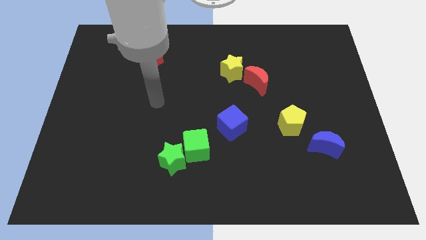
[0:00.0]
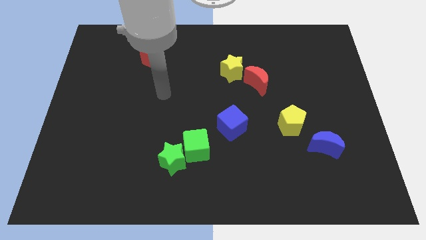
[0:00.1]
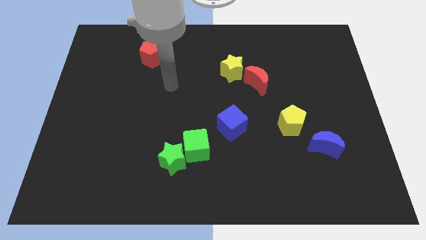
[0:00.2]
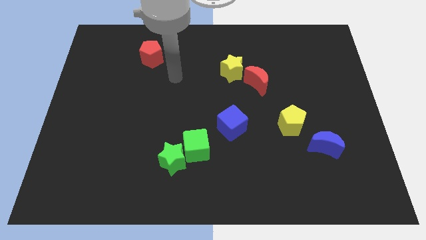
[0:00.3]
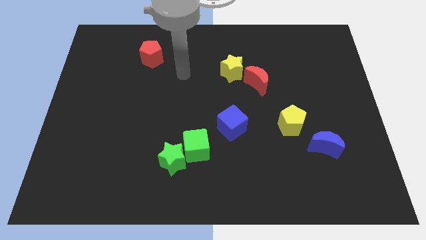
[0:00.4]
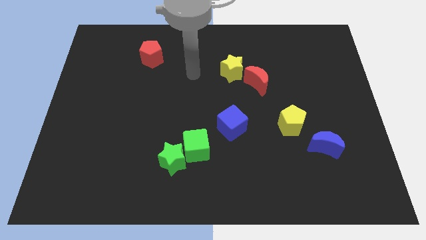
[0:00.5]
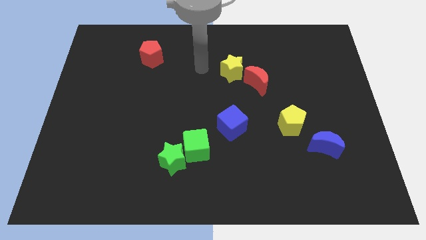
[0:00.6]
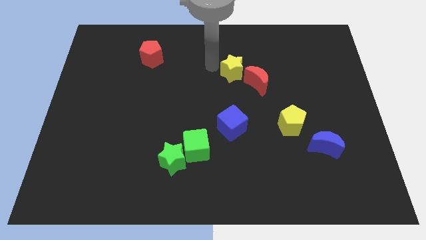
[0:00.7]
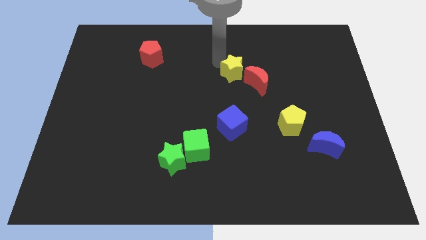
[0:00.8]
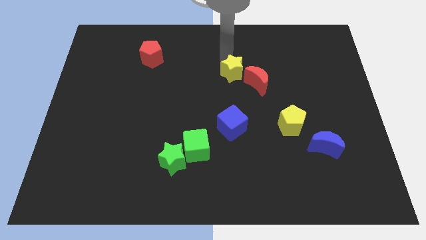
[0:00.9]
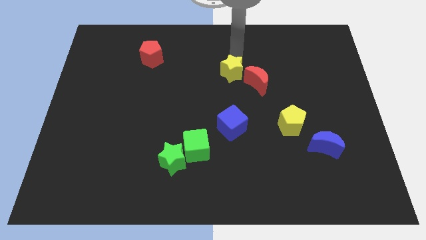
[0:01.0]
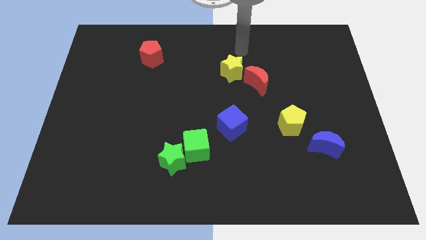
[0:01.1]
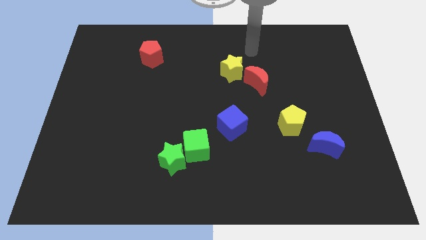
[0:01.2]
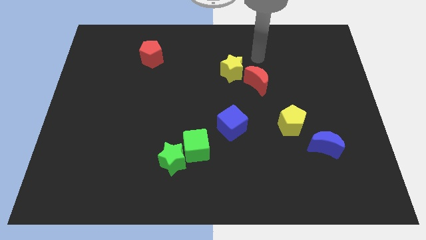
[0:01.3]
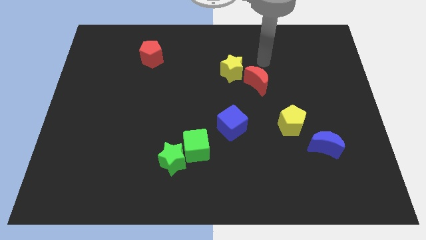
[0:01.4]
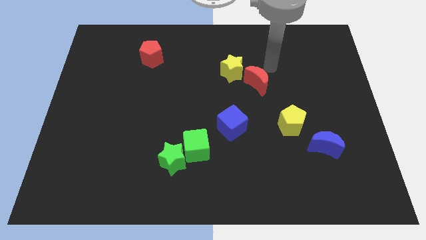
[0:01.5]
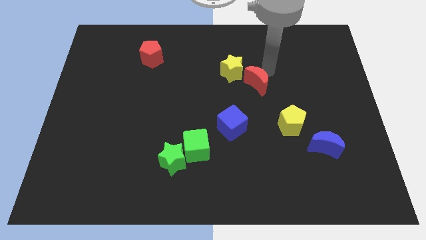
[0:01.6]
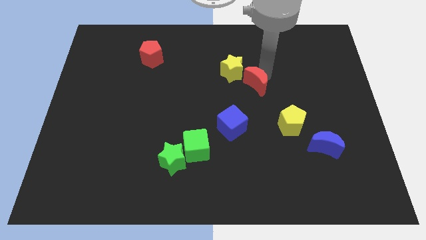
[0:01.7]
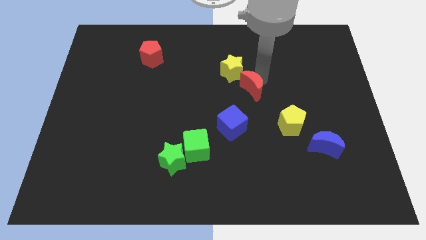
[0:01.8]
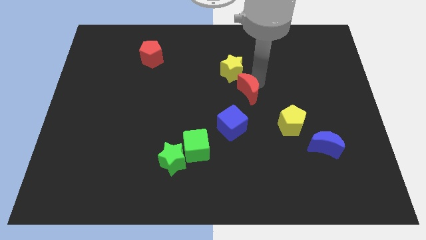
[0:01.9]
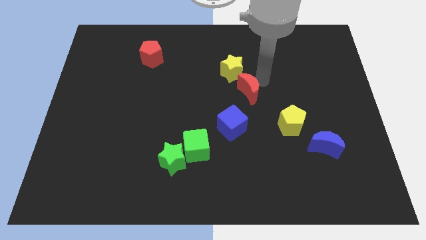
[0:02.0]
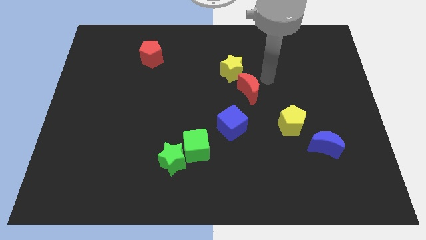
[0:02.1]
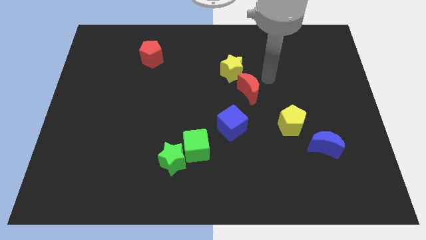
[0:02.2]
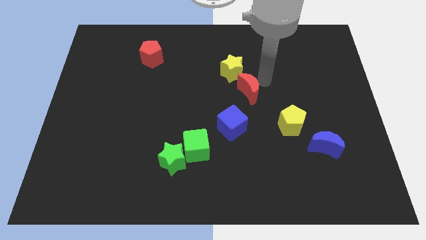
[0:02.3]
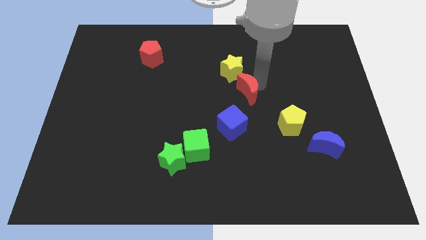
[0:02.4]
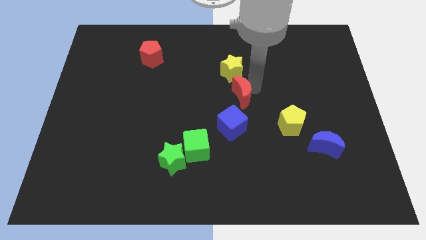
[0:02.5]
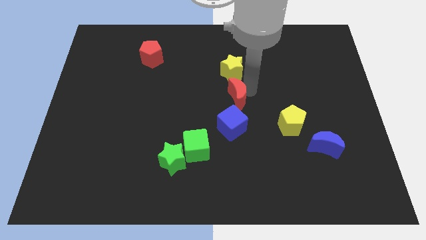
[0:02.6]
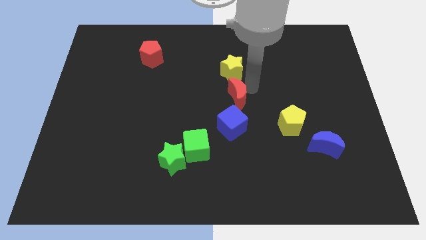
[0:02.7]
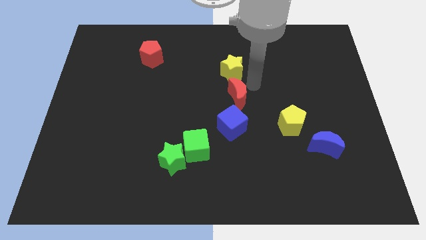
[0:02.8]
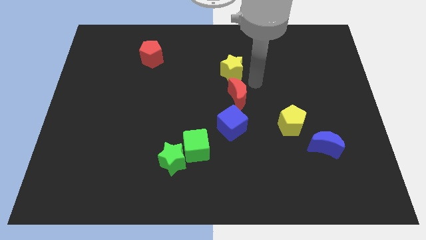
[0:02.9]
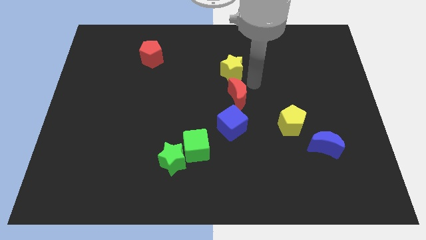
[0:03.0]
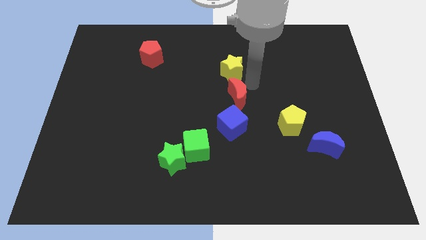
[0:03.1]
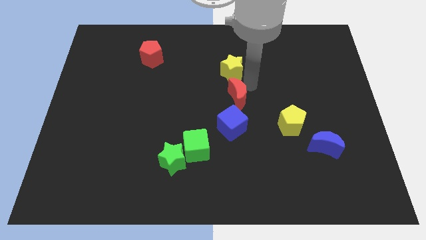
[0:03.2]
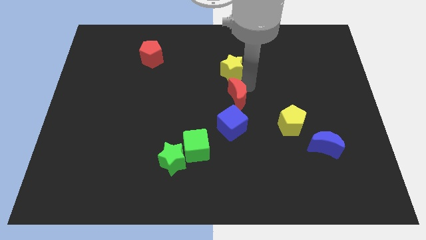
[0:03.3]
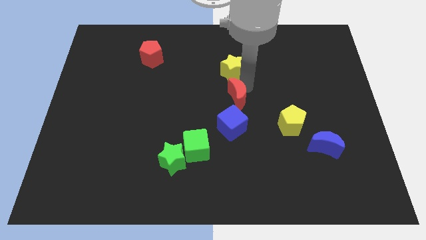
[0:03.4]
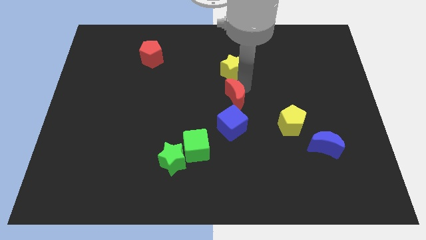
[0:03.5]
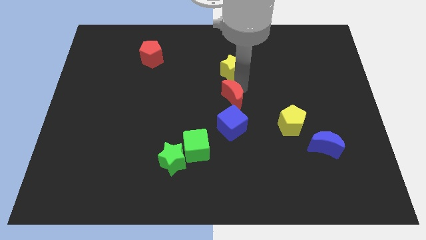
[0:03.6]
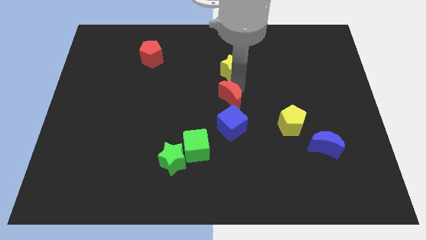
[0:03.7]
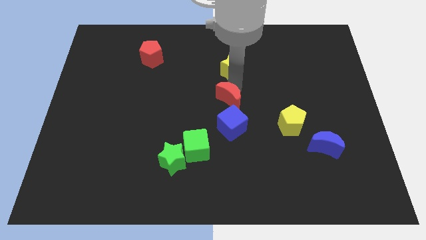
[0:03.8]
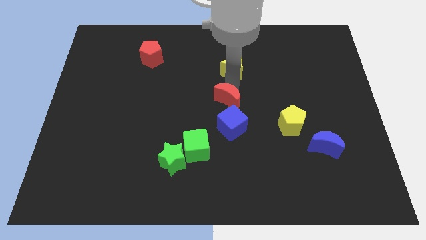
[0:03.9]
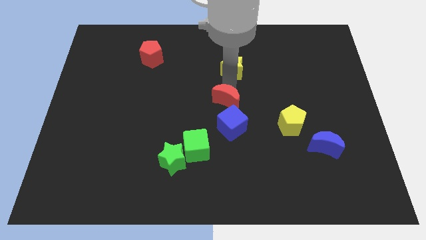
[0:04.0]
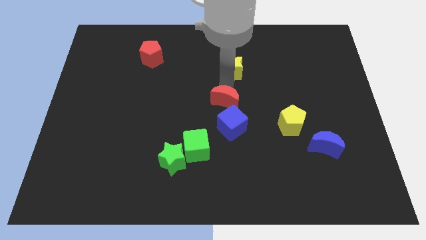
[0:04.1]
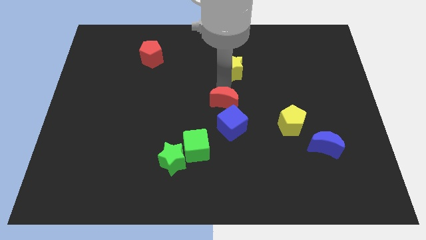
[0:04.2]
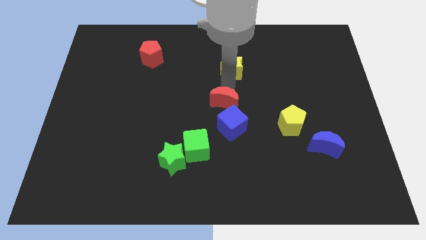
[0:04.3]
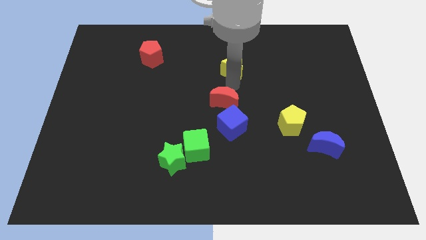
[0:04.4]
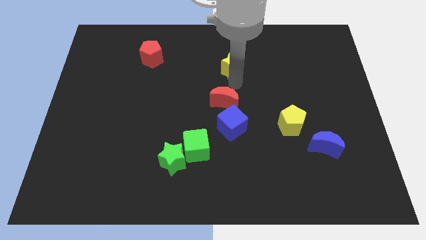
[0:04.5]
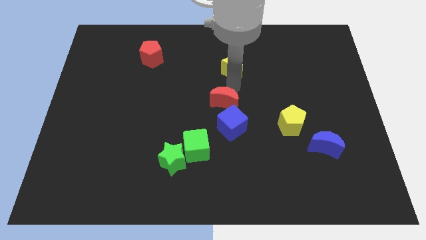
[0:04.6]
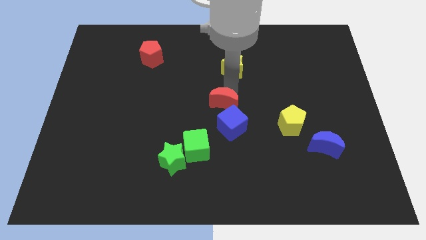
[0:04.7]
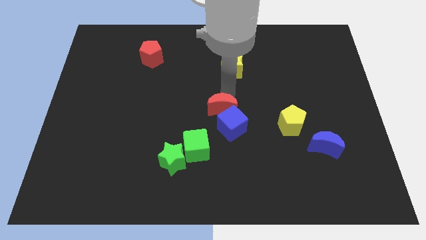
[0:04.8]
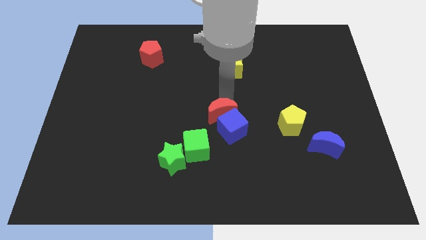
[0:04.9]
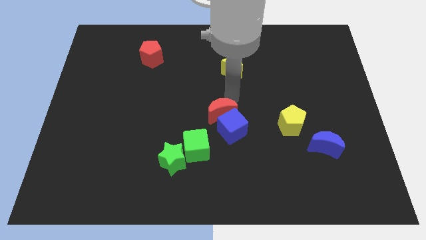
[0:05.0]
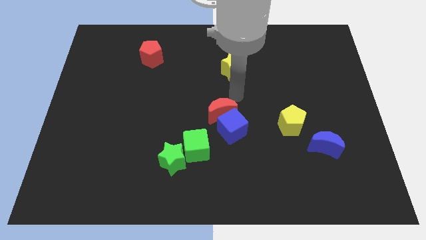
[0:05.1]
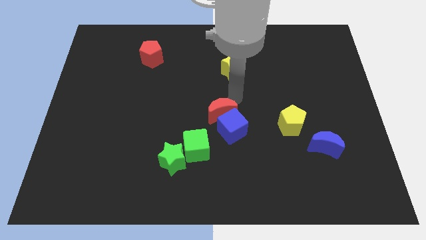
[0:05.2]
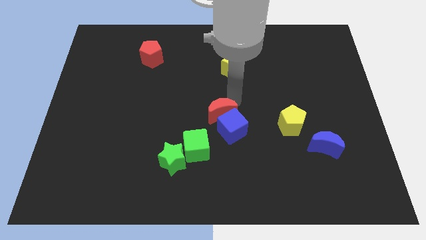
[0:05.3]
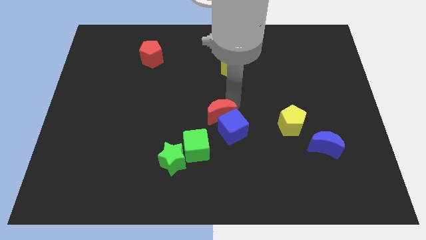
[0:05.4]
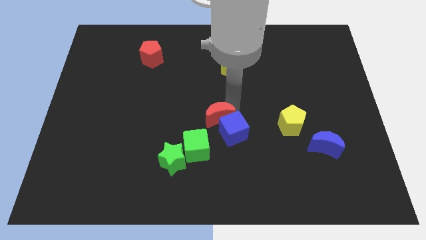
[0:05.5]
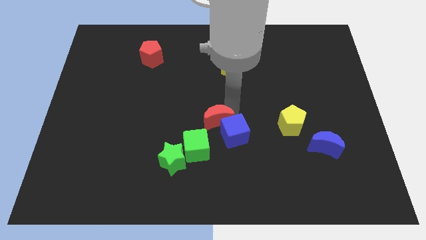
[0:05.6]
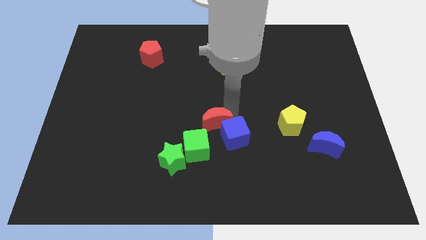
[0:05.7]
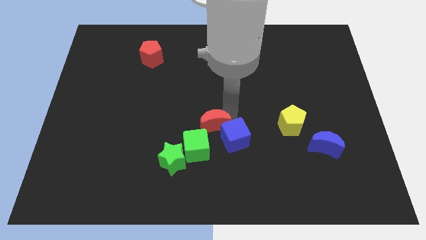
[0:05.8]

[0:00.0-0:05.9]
slide the red moon to the top right side of the green star

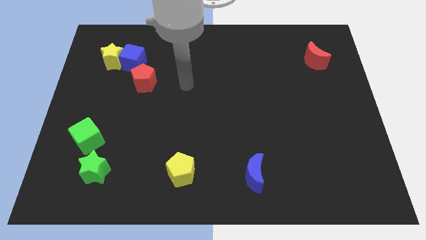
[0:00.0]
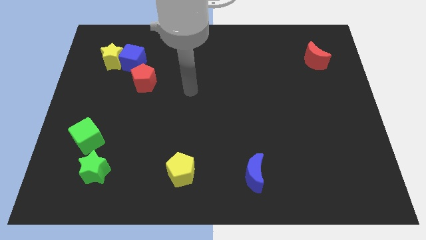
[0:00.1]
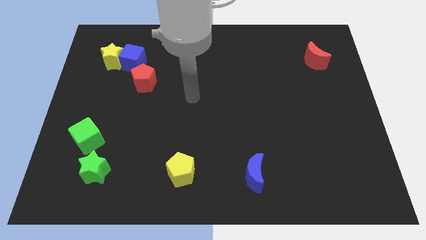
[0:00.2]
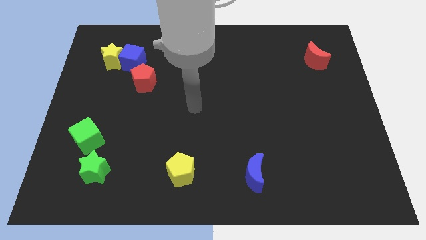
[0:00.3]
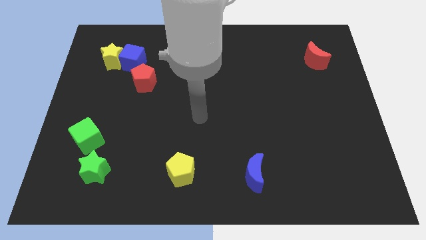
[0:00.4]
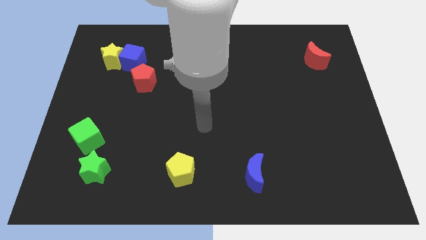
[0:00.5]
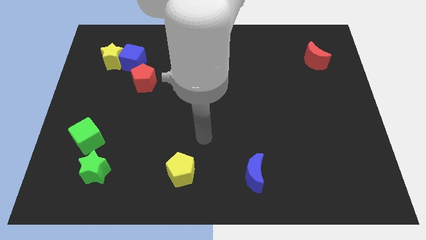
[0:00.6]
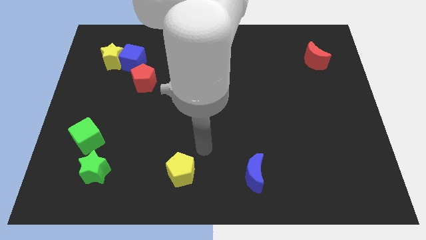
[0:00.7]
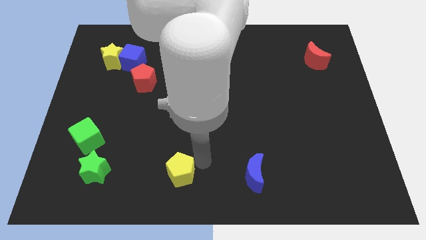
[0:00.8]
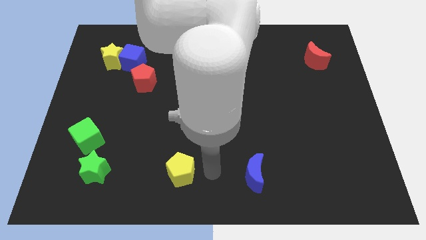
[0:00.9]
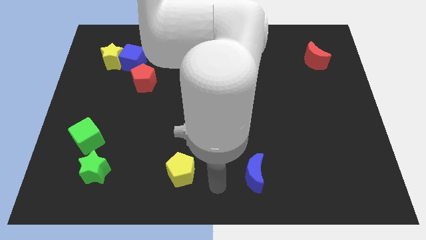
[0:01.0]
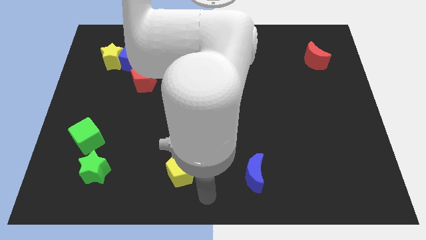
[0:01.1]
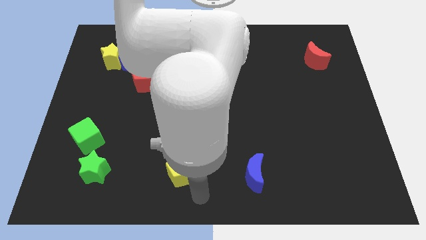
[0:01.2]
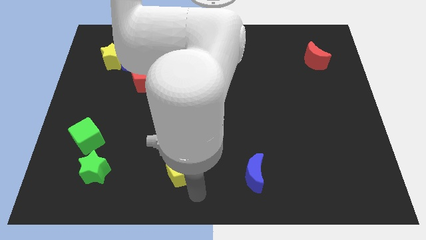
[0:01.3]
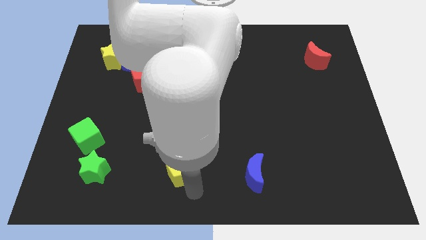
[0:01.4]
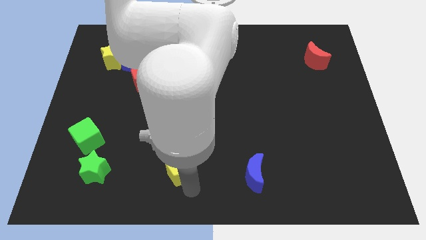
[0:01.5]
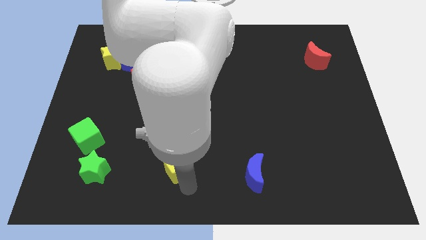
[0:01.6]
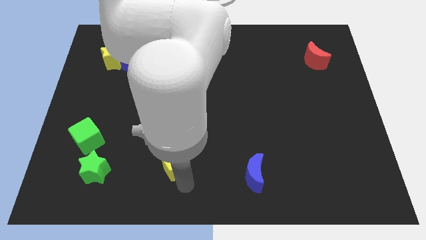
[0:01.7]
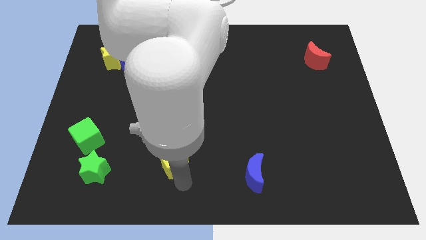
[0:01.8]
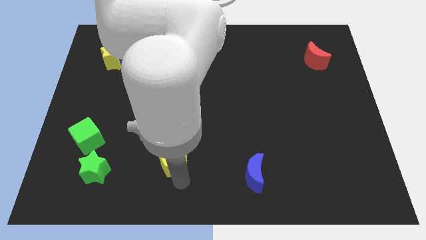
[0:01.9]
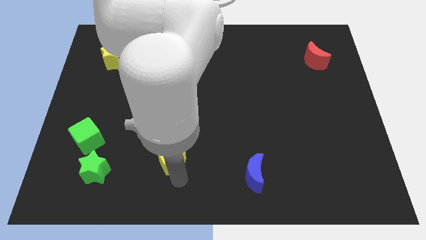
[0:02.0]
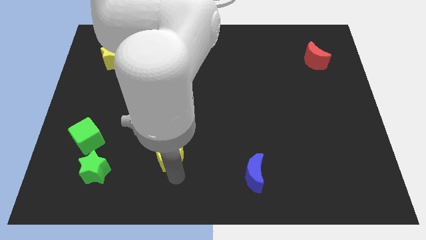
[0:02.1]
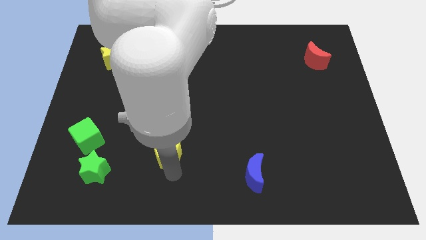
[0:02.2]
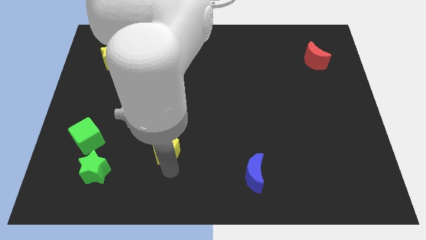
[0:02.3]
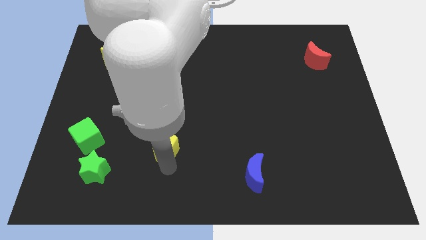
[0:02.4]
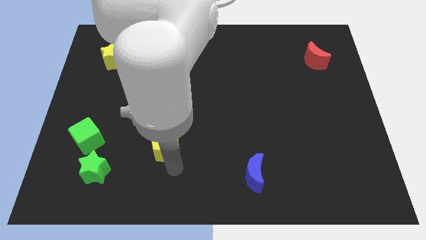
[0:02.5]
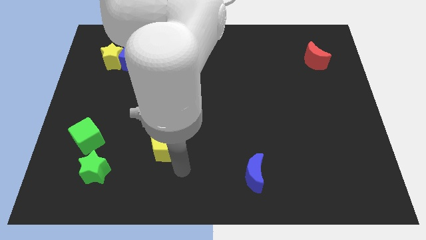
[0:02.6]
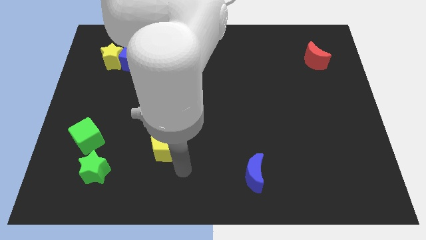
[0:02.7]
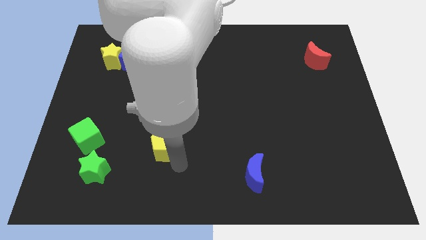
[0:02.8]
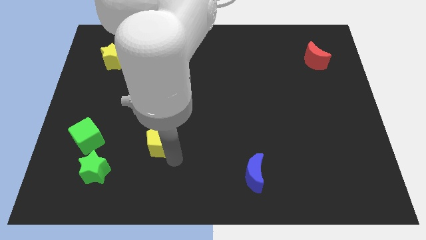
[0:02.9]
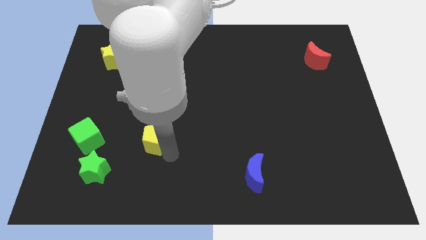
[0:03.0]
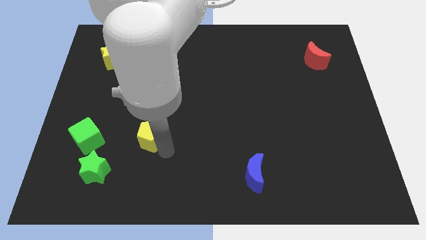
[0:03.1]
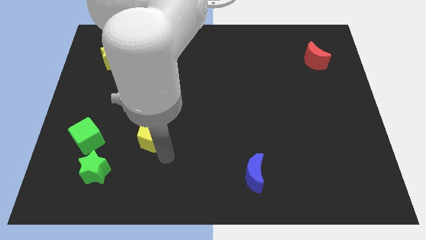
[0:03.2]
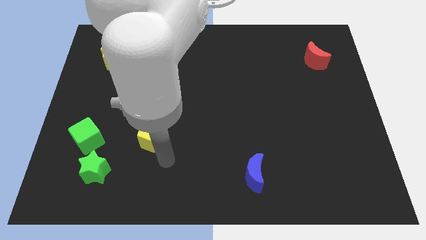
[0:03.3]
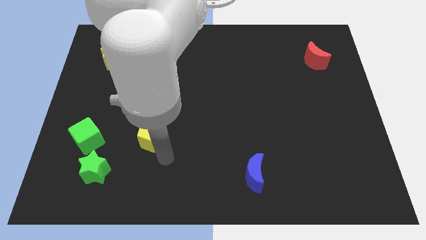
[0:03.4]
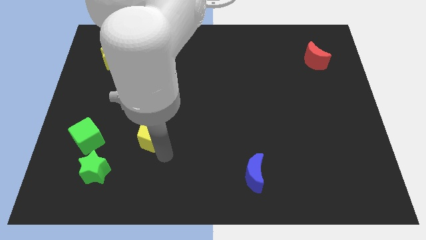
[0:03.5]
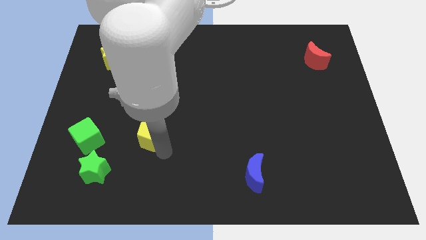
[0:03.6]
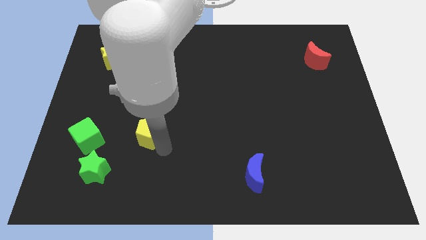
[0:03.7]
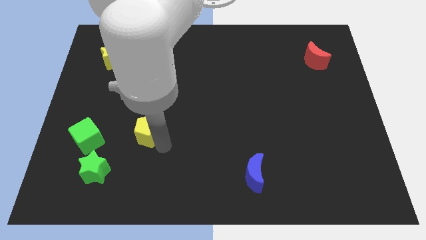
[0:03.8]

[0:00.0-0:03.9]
push the yellow pentagon below the red pentagon
